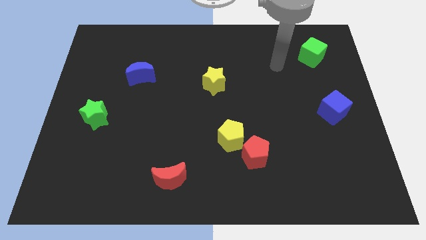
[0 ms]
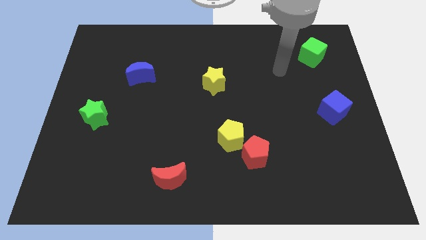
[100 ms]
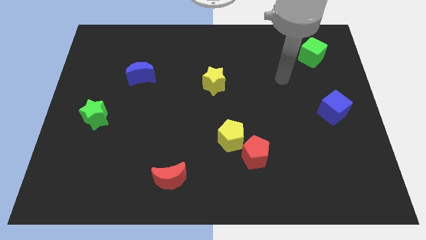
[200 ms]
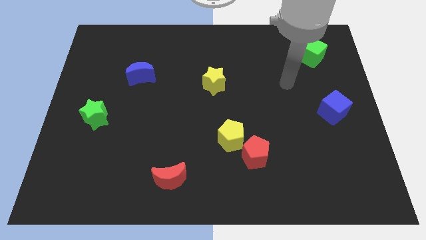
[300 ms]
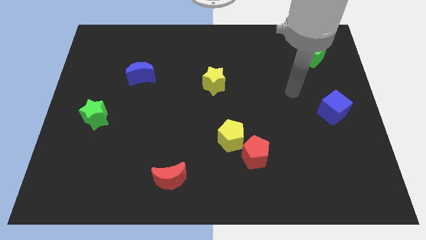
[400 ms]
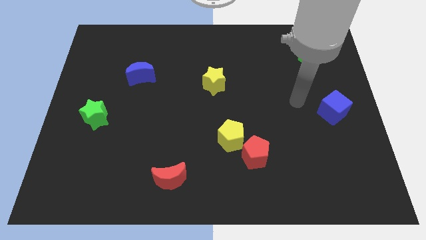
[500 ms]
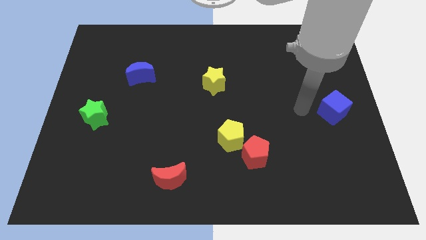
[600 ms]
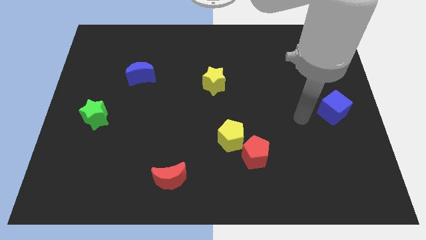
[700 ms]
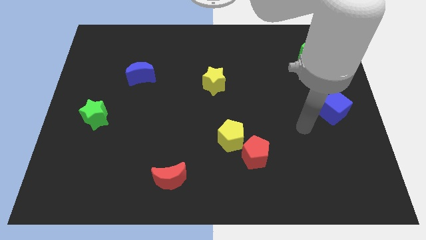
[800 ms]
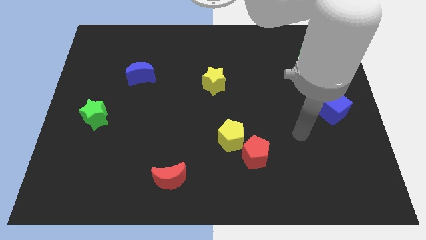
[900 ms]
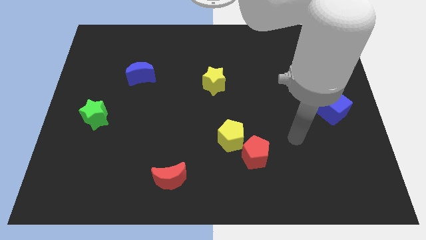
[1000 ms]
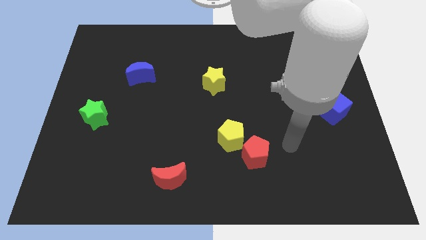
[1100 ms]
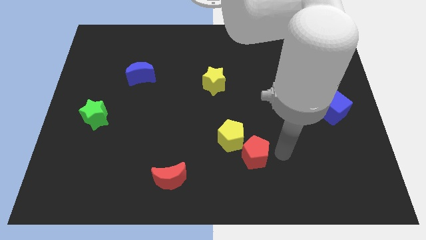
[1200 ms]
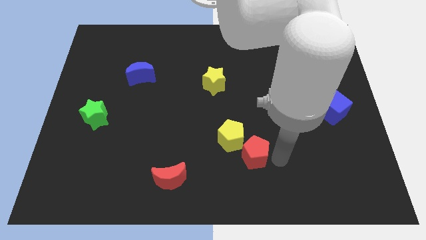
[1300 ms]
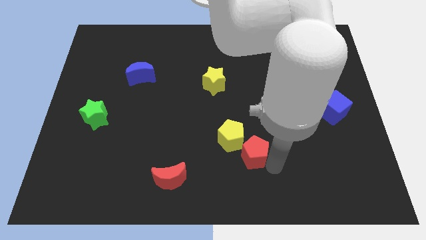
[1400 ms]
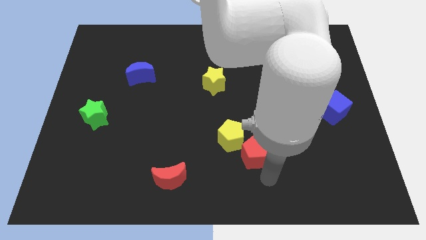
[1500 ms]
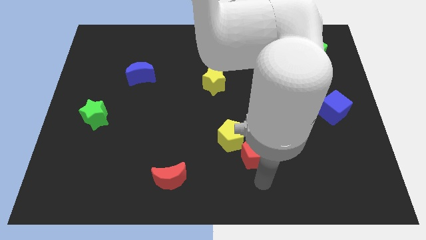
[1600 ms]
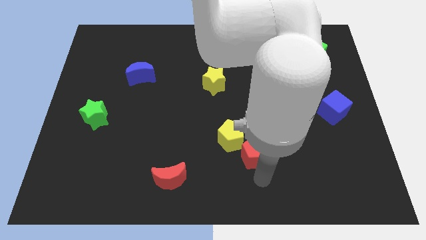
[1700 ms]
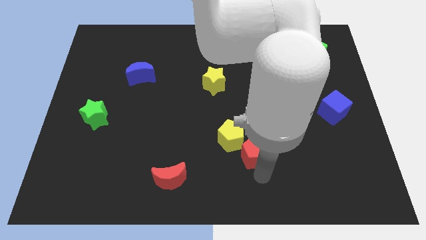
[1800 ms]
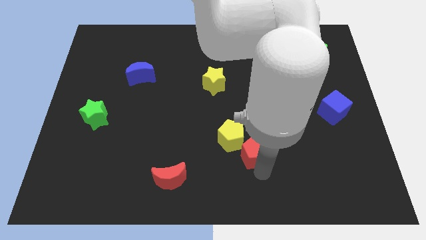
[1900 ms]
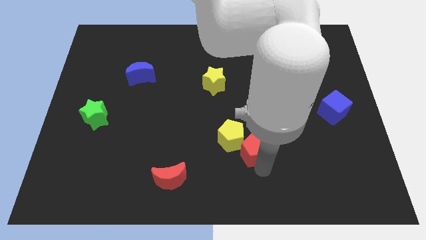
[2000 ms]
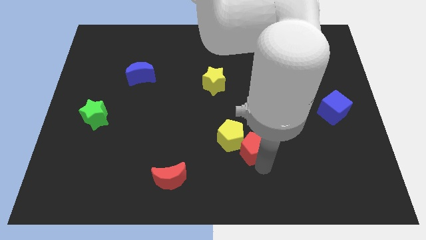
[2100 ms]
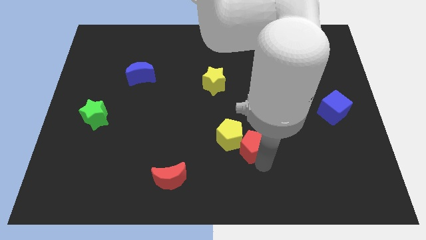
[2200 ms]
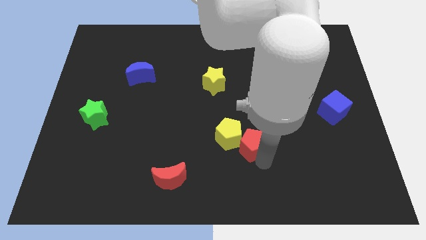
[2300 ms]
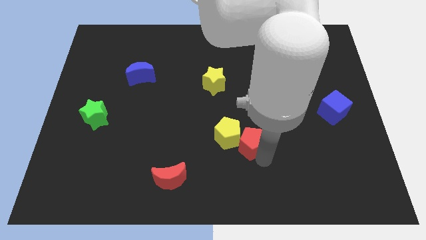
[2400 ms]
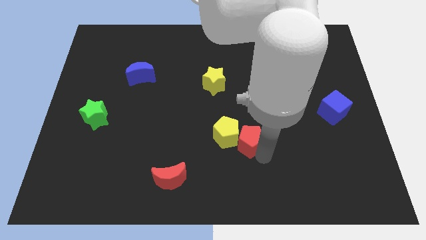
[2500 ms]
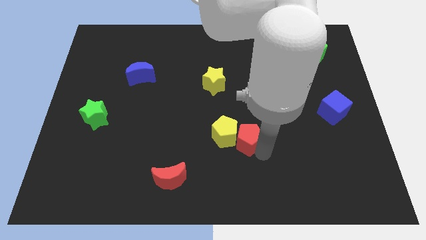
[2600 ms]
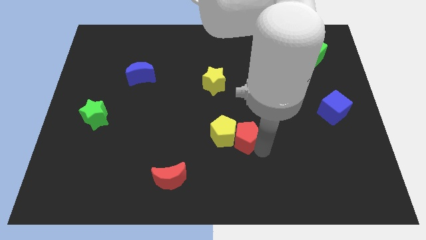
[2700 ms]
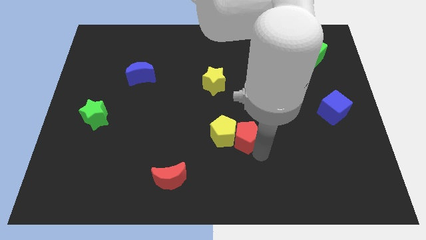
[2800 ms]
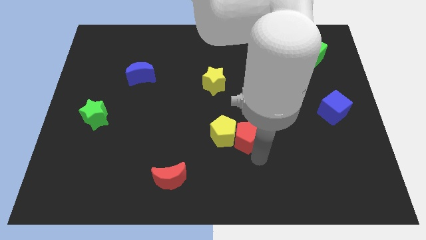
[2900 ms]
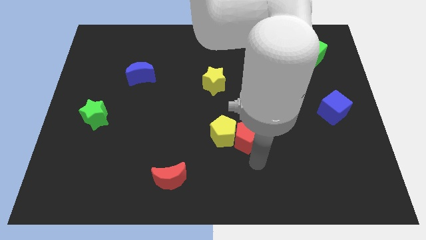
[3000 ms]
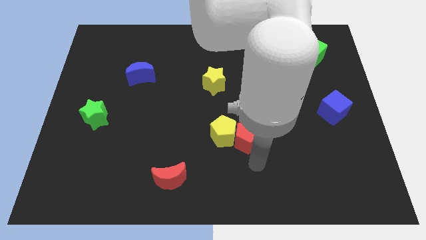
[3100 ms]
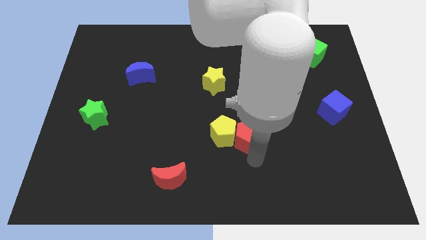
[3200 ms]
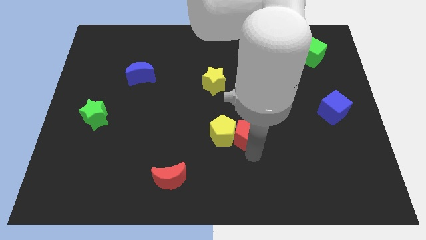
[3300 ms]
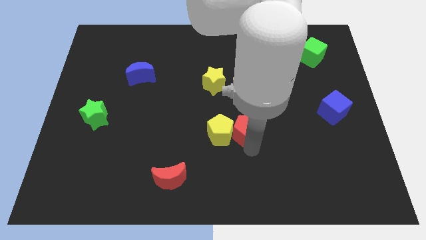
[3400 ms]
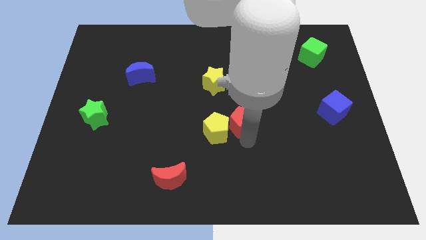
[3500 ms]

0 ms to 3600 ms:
push the red pentagon up somewhat

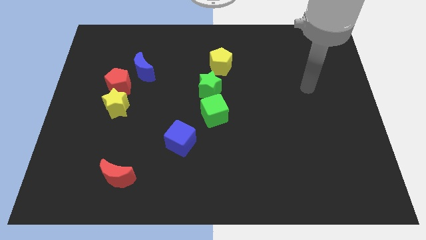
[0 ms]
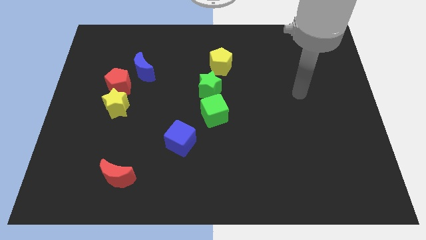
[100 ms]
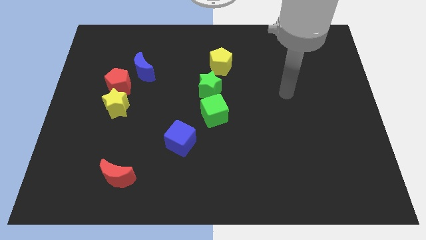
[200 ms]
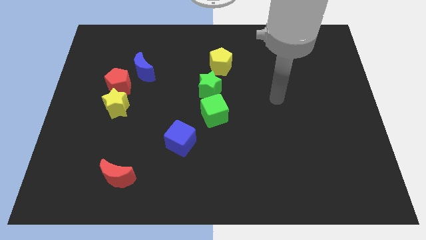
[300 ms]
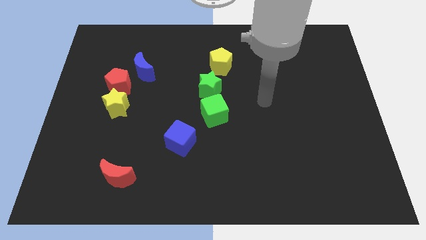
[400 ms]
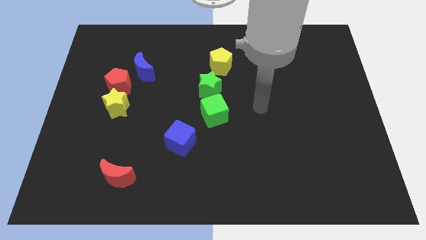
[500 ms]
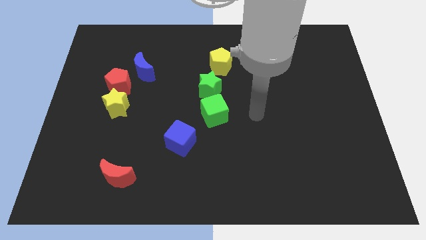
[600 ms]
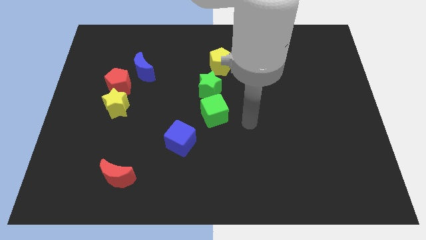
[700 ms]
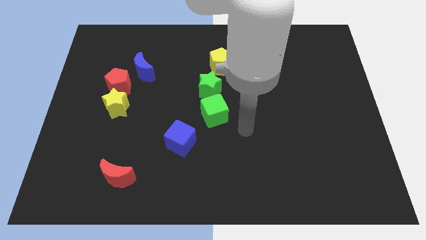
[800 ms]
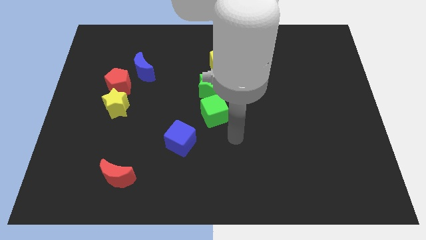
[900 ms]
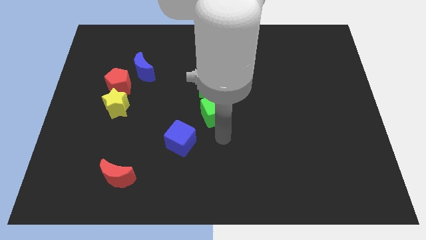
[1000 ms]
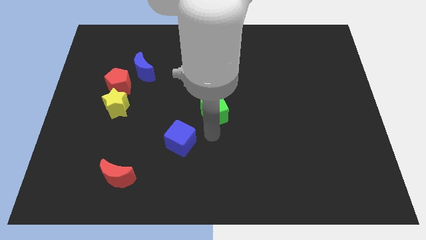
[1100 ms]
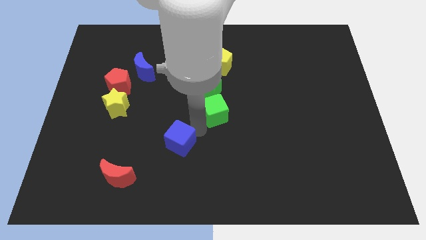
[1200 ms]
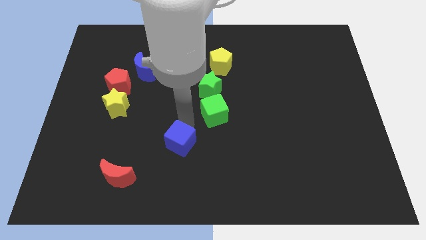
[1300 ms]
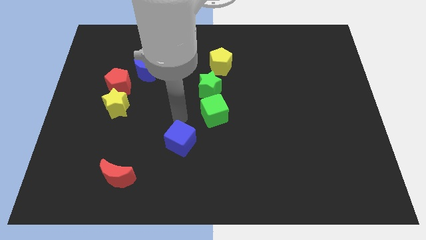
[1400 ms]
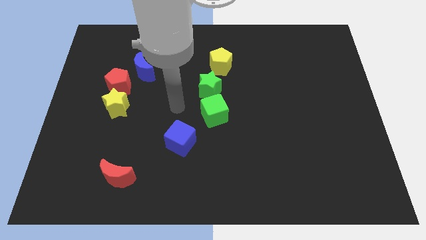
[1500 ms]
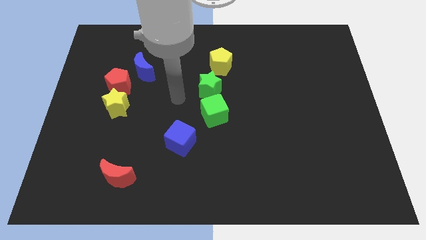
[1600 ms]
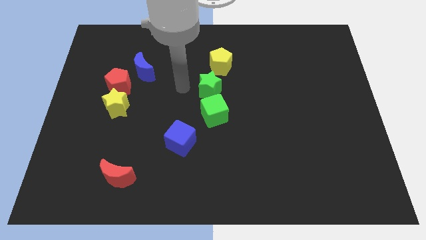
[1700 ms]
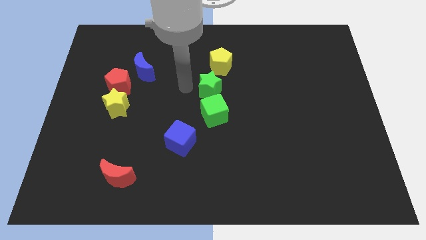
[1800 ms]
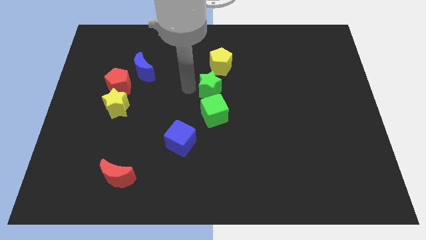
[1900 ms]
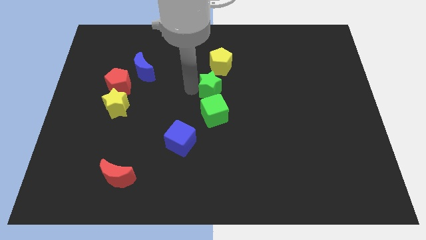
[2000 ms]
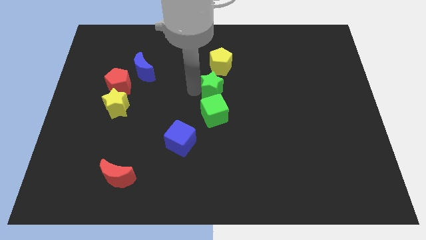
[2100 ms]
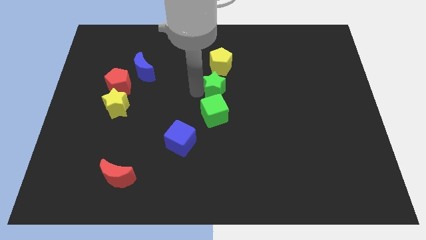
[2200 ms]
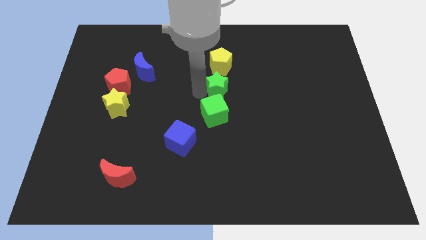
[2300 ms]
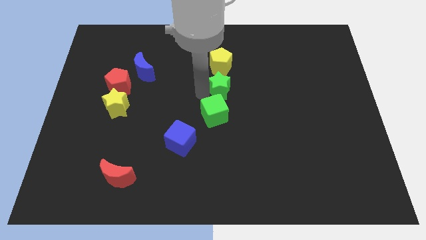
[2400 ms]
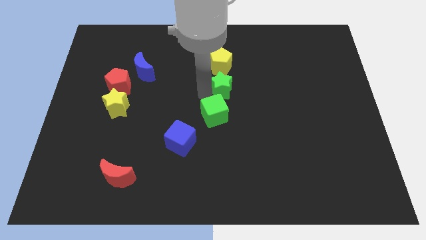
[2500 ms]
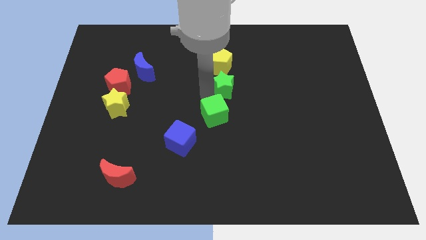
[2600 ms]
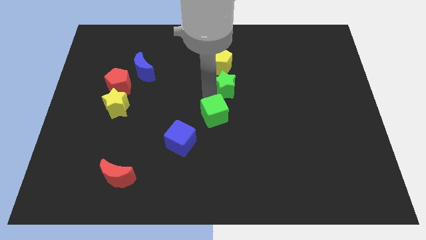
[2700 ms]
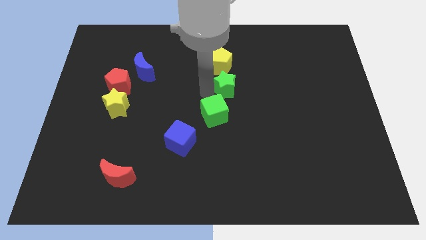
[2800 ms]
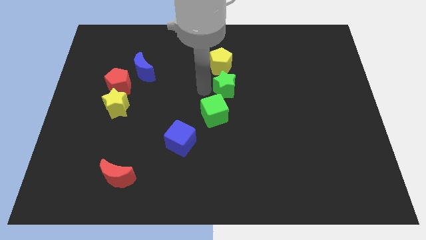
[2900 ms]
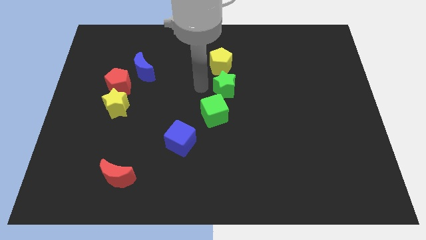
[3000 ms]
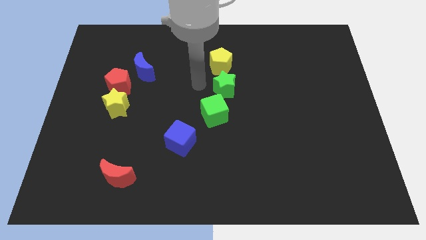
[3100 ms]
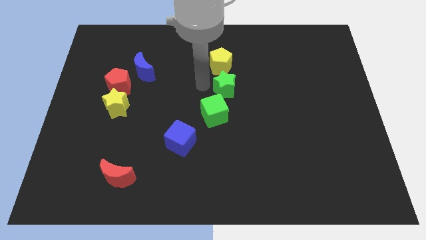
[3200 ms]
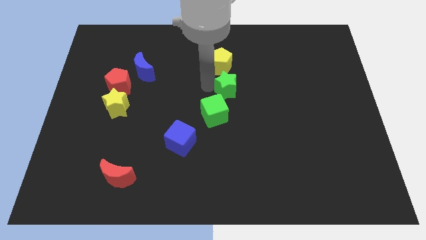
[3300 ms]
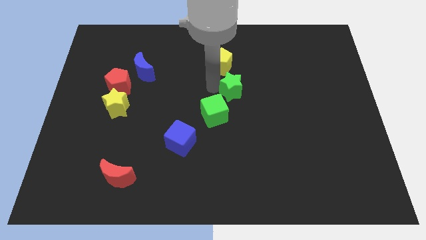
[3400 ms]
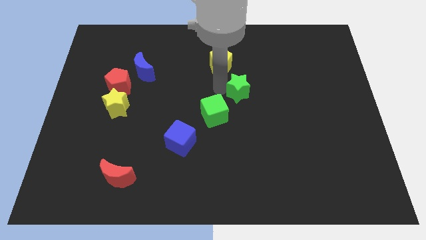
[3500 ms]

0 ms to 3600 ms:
push the green star to the right slightly

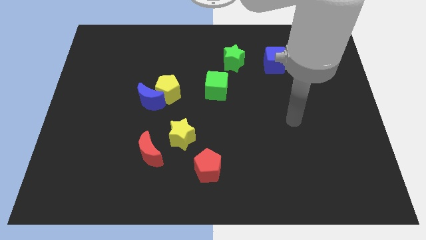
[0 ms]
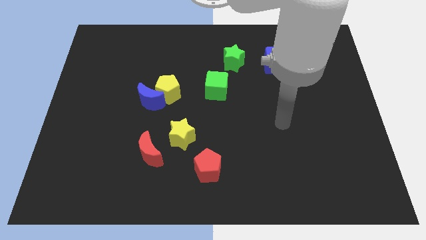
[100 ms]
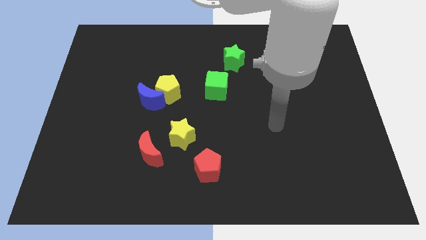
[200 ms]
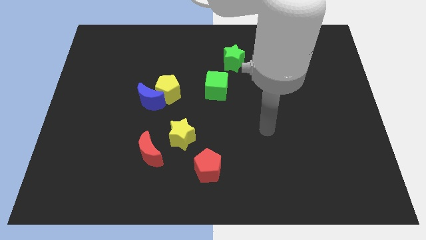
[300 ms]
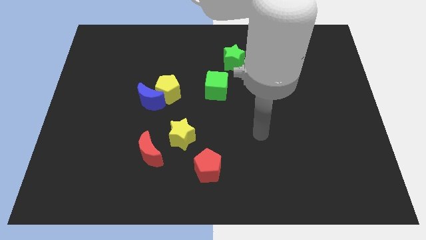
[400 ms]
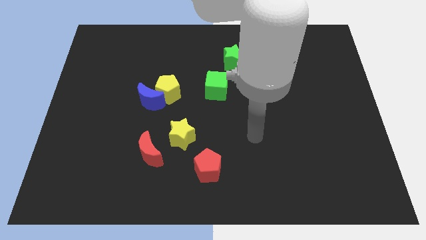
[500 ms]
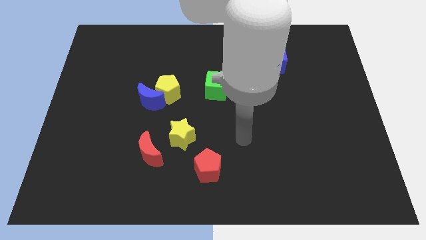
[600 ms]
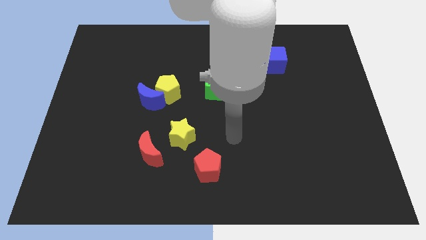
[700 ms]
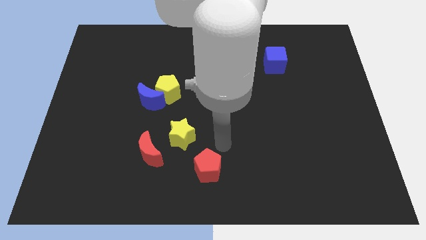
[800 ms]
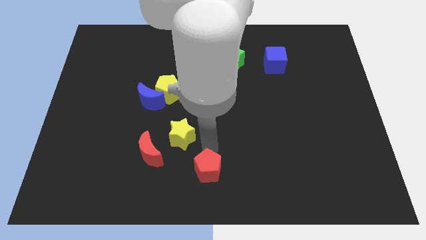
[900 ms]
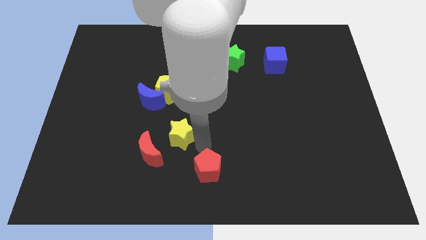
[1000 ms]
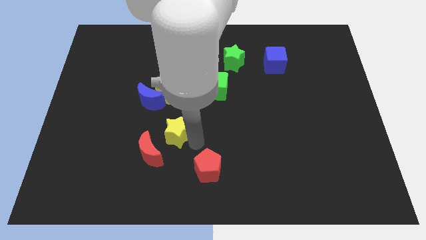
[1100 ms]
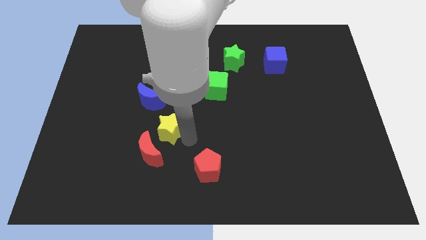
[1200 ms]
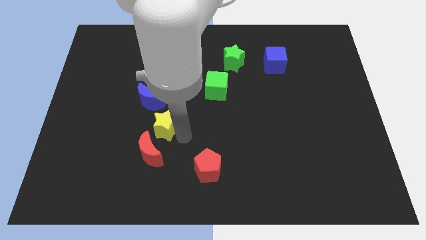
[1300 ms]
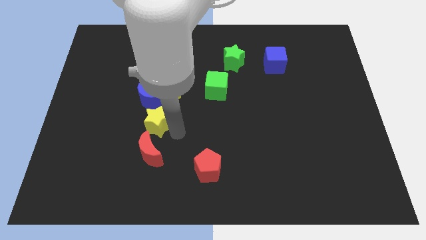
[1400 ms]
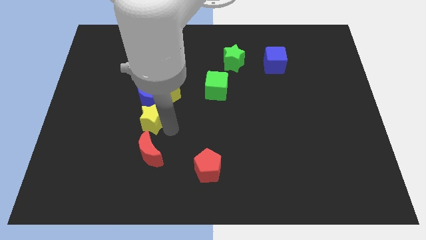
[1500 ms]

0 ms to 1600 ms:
move the yellow star a little diagonally up and to the left
